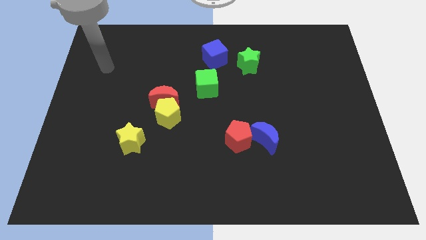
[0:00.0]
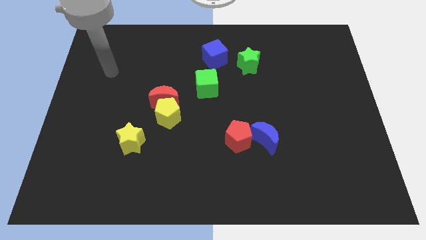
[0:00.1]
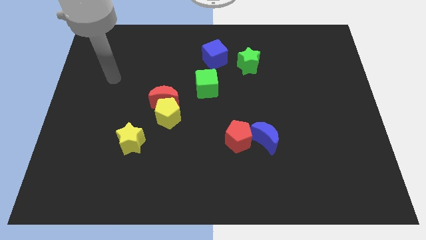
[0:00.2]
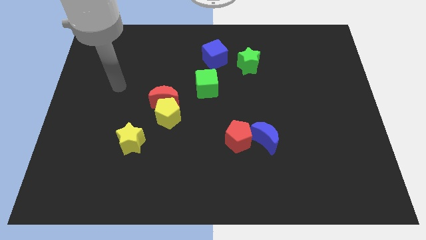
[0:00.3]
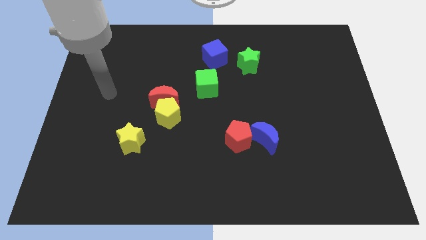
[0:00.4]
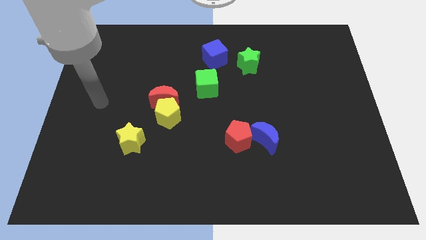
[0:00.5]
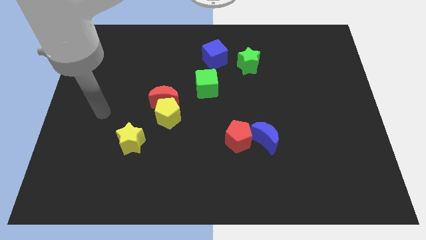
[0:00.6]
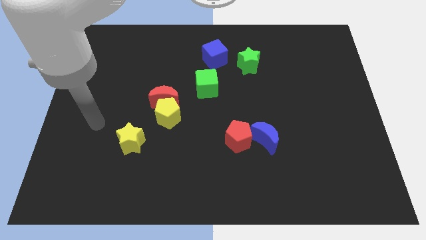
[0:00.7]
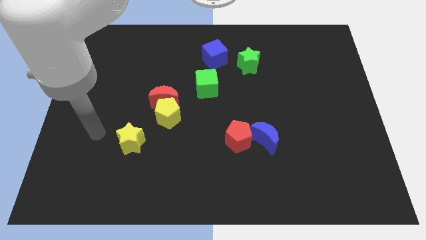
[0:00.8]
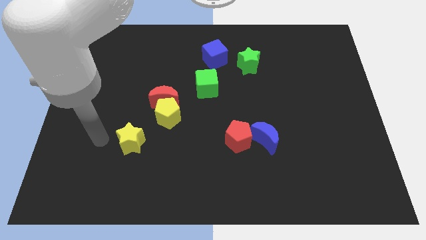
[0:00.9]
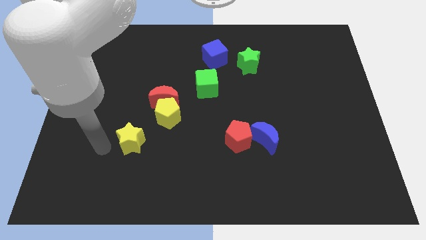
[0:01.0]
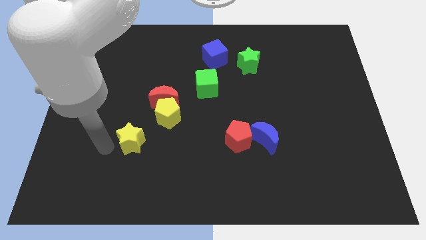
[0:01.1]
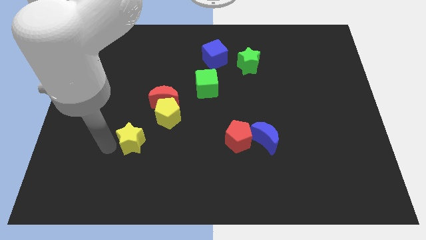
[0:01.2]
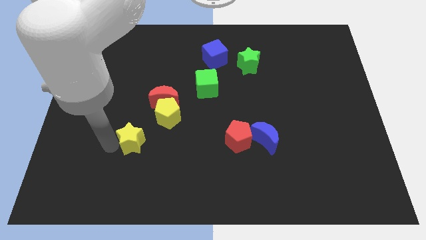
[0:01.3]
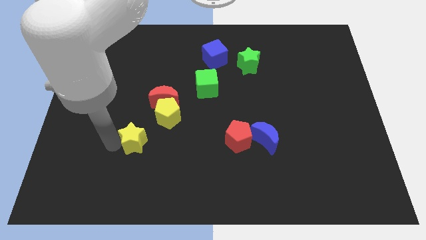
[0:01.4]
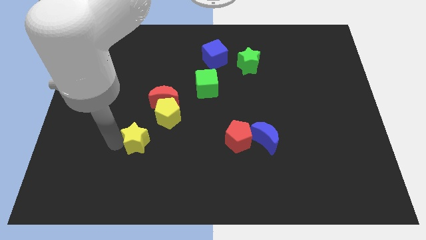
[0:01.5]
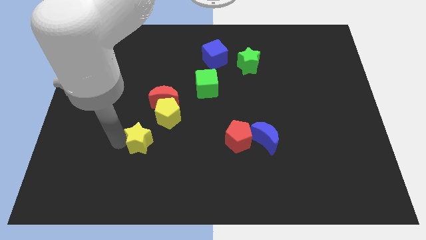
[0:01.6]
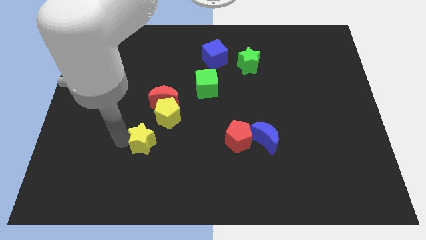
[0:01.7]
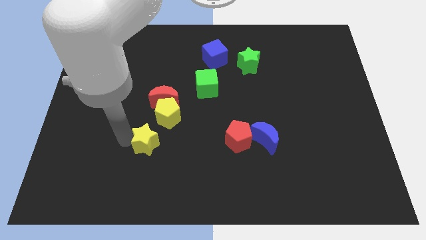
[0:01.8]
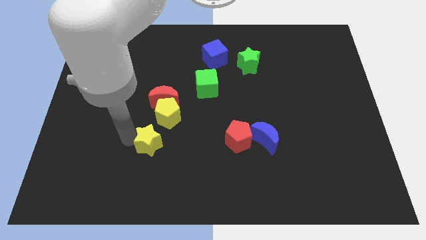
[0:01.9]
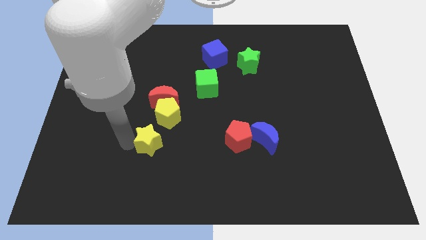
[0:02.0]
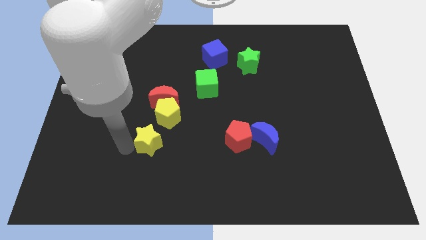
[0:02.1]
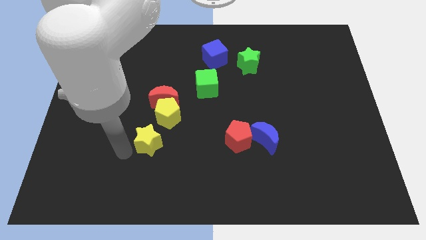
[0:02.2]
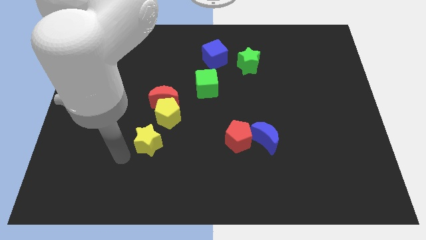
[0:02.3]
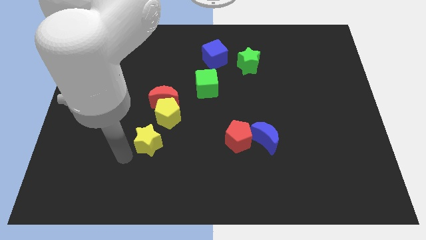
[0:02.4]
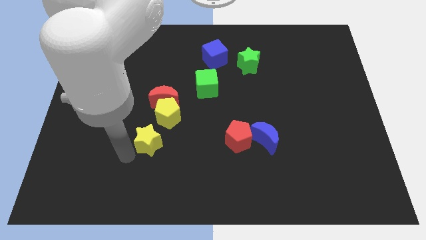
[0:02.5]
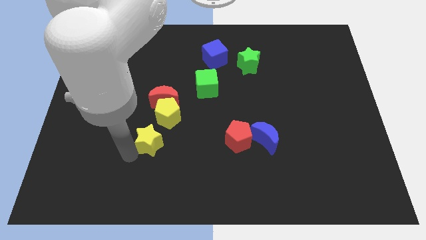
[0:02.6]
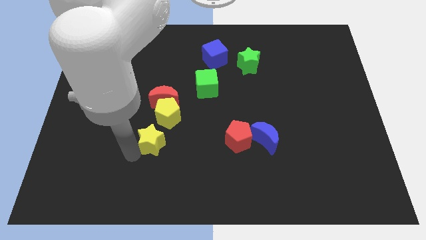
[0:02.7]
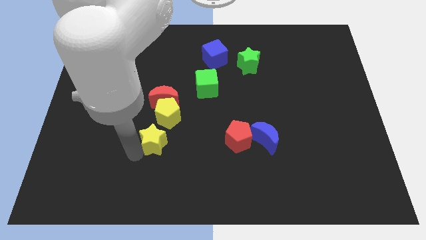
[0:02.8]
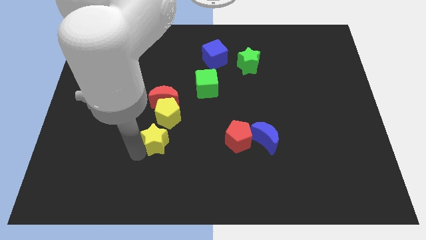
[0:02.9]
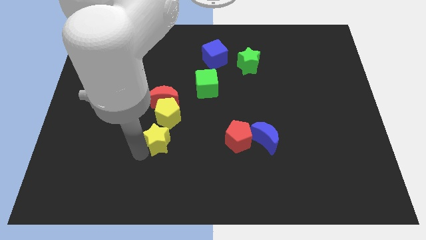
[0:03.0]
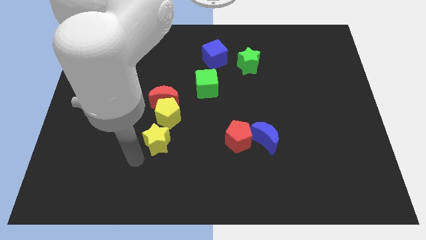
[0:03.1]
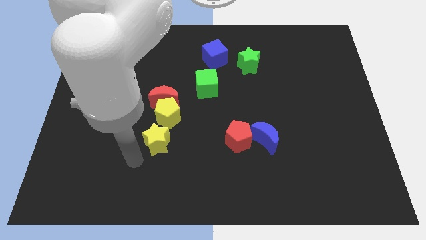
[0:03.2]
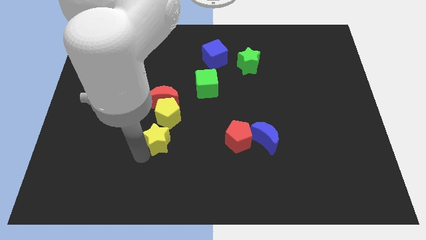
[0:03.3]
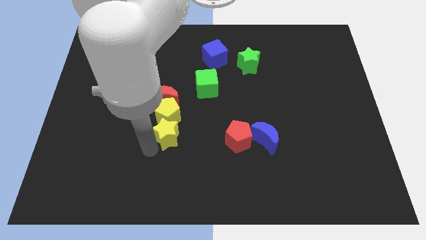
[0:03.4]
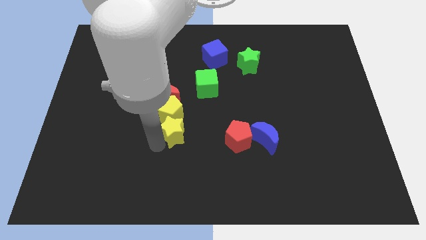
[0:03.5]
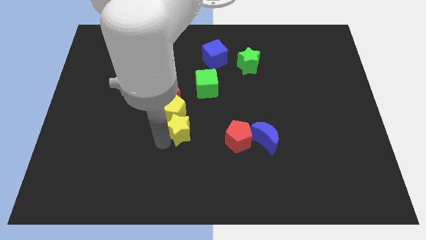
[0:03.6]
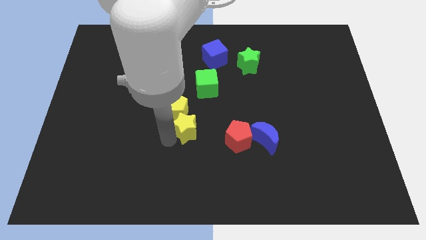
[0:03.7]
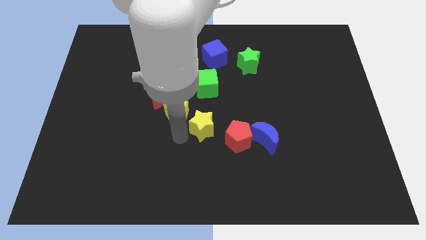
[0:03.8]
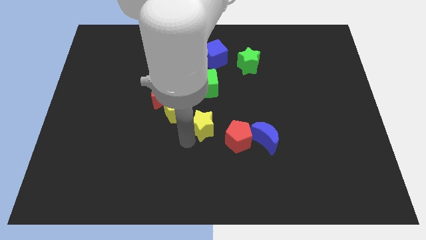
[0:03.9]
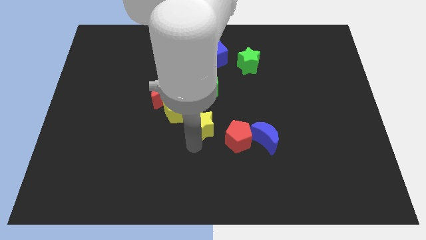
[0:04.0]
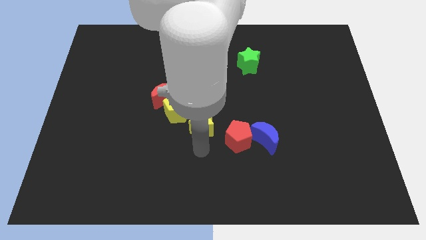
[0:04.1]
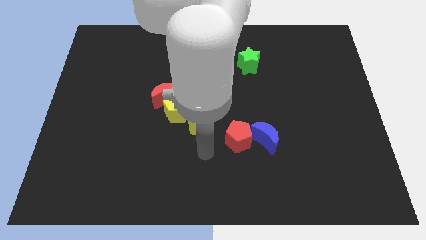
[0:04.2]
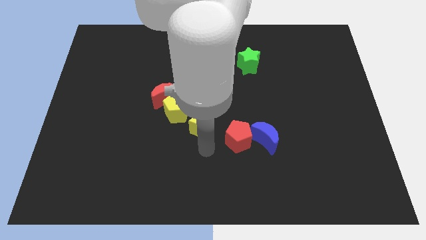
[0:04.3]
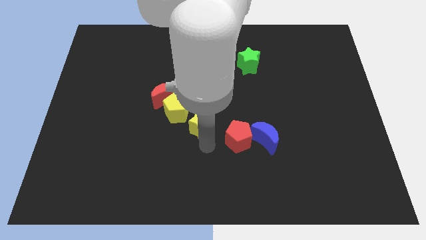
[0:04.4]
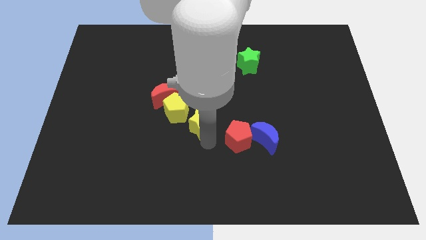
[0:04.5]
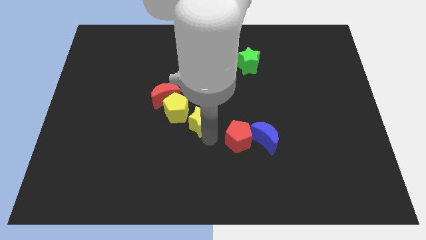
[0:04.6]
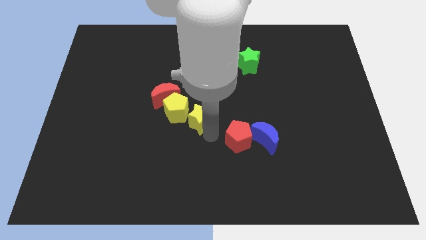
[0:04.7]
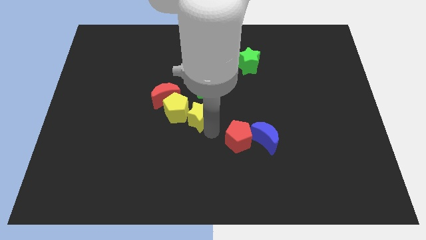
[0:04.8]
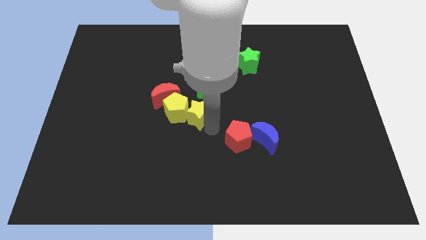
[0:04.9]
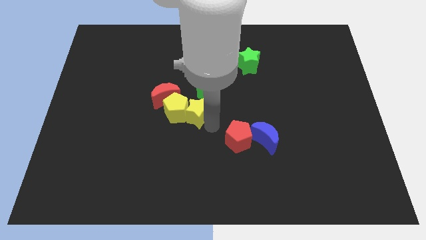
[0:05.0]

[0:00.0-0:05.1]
slide the yellow star diagonally up and to the right of the yellow pentagon

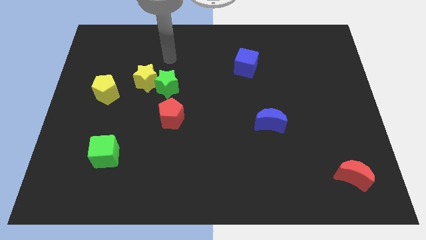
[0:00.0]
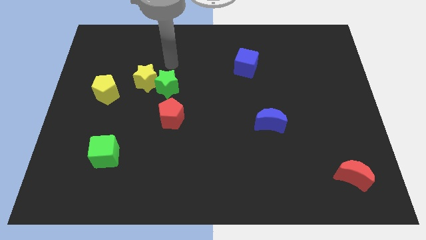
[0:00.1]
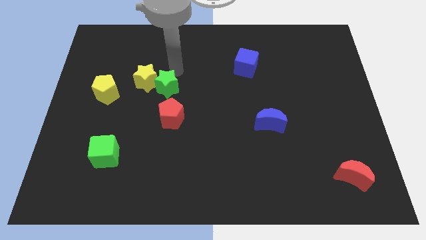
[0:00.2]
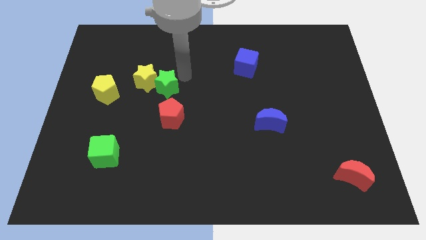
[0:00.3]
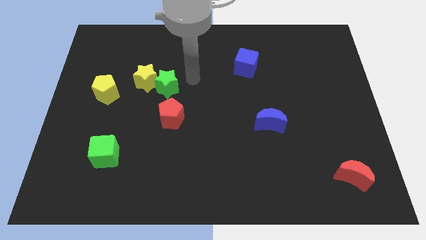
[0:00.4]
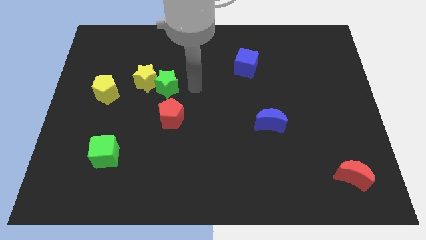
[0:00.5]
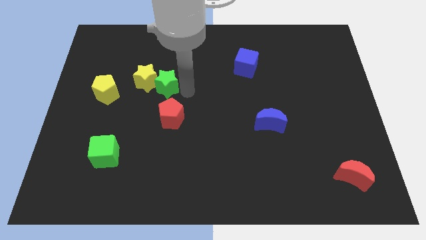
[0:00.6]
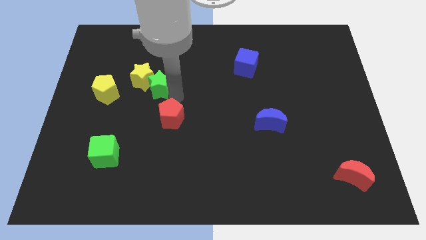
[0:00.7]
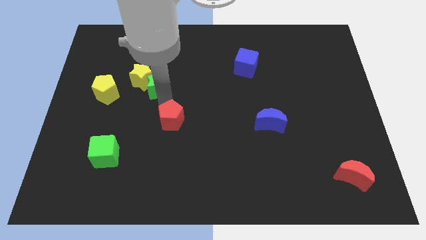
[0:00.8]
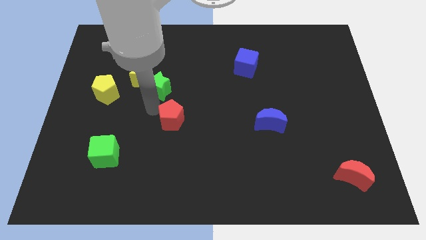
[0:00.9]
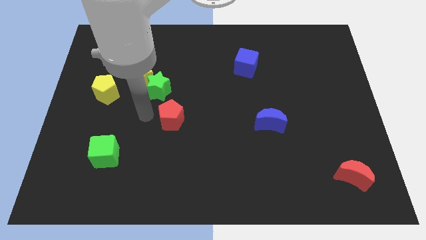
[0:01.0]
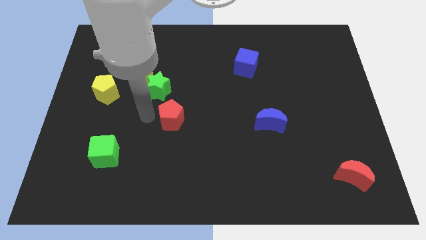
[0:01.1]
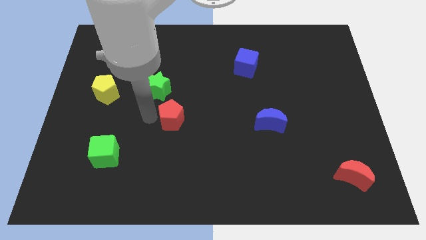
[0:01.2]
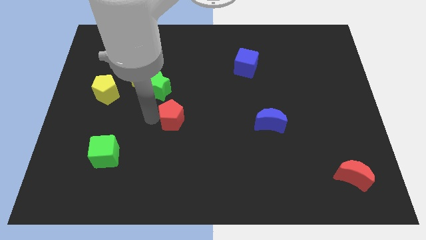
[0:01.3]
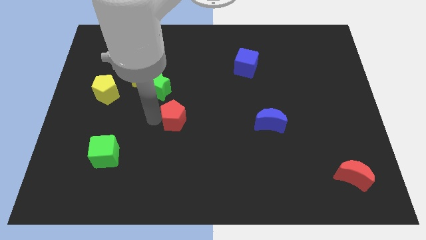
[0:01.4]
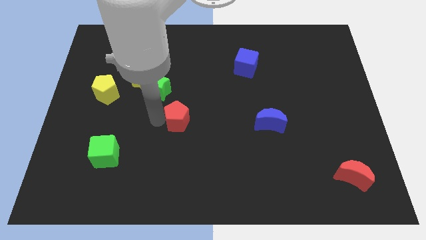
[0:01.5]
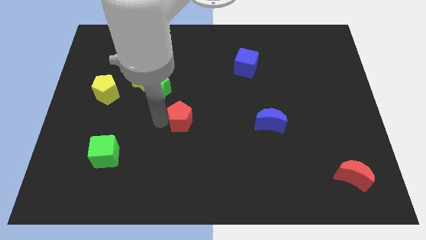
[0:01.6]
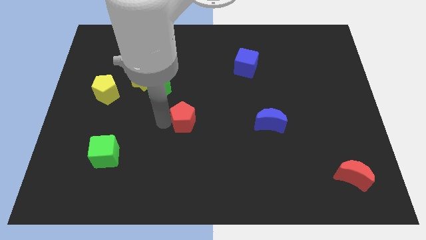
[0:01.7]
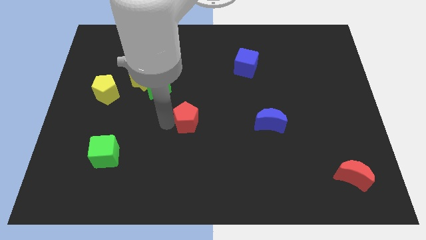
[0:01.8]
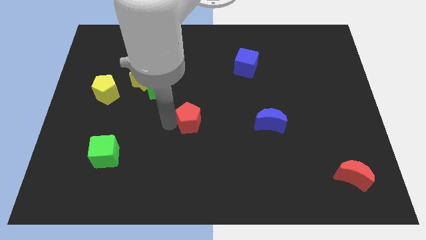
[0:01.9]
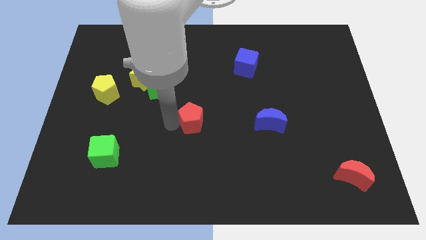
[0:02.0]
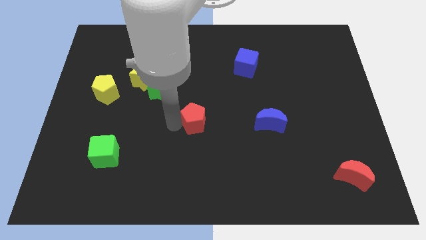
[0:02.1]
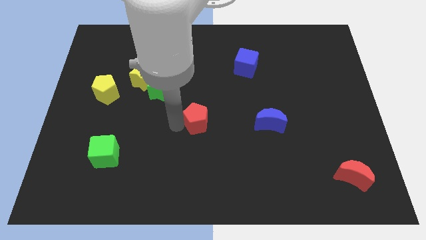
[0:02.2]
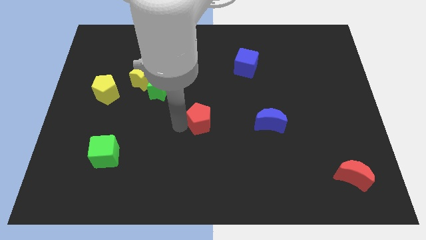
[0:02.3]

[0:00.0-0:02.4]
slide the red pentagon just left of the blue moon
